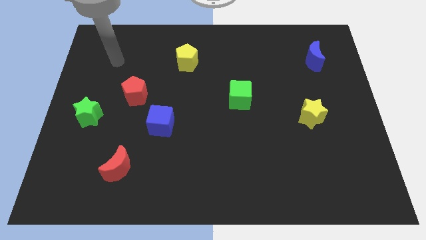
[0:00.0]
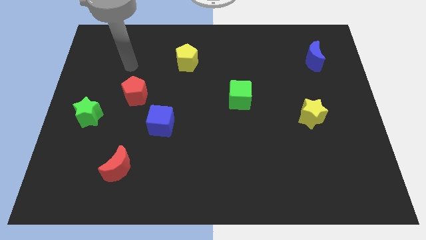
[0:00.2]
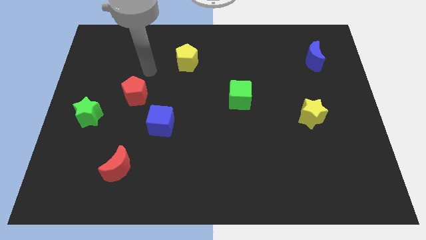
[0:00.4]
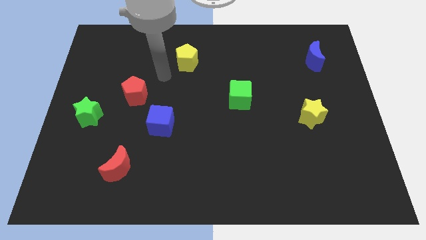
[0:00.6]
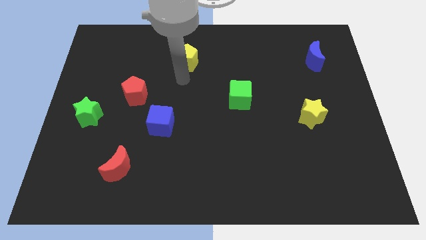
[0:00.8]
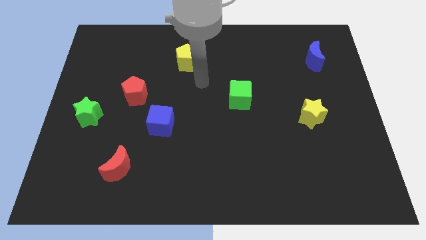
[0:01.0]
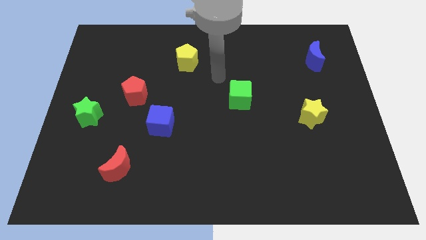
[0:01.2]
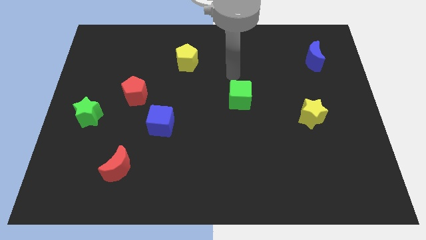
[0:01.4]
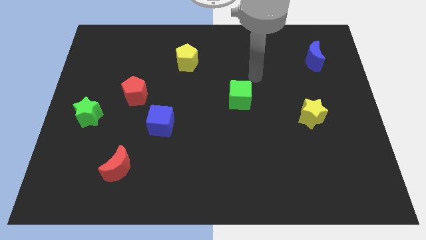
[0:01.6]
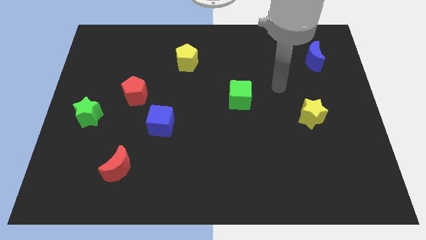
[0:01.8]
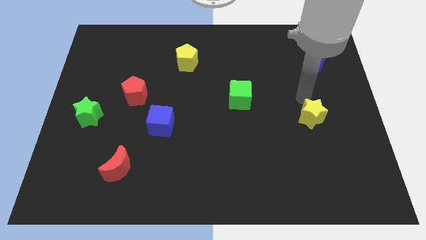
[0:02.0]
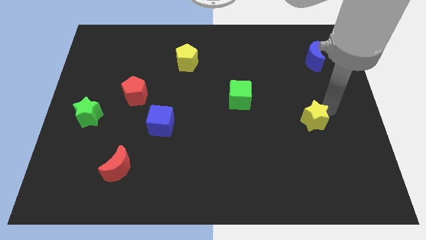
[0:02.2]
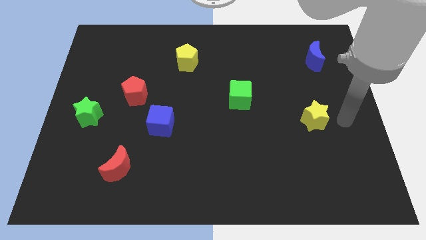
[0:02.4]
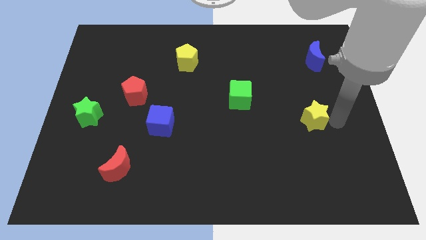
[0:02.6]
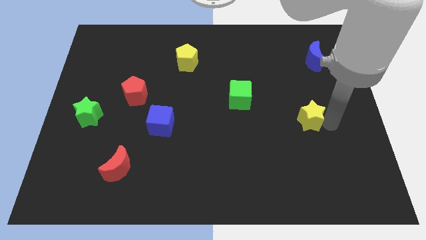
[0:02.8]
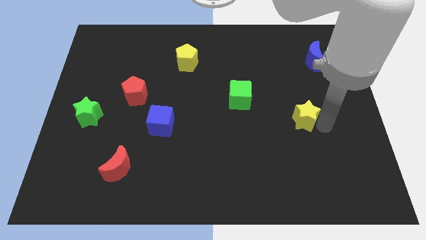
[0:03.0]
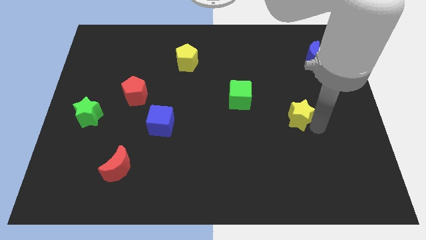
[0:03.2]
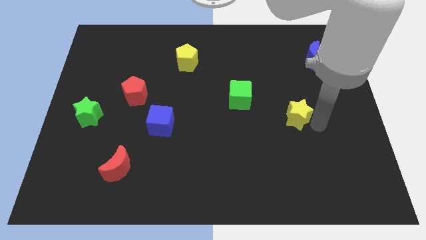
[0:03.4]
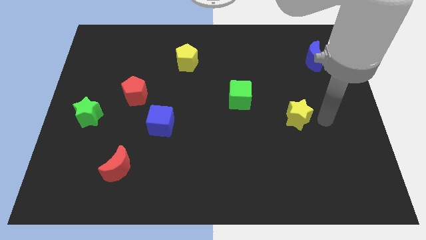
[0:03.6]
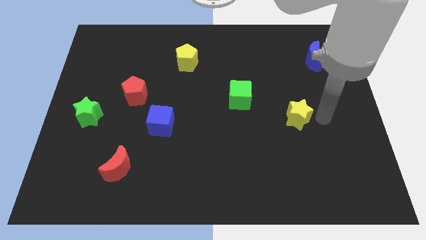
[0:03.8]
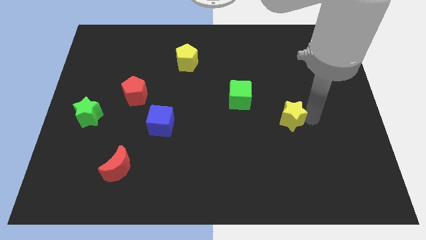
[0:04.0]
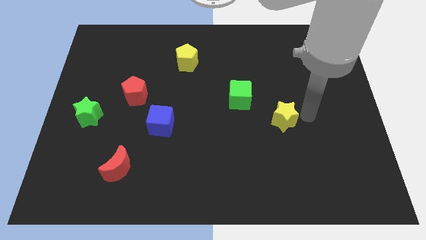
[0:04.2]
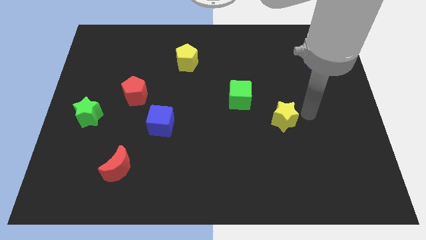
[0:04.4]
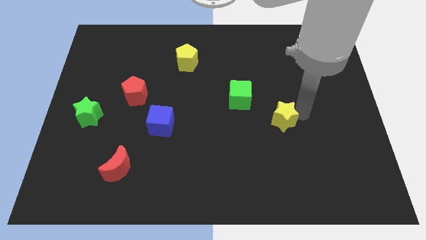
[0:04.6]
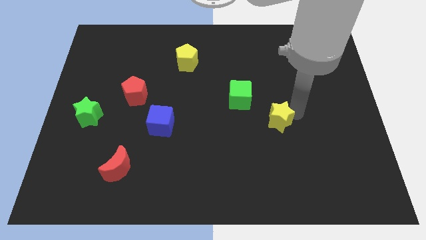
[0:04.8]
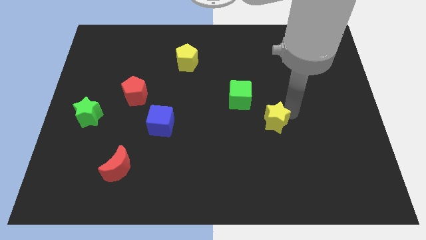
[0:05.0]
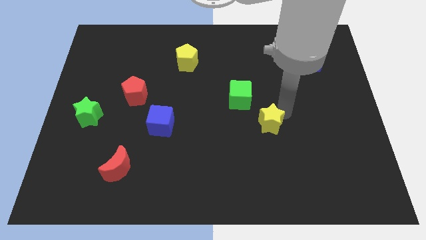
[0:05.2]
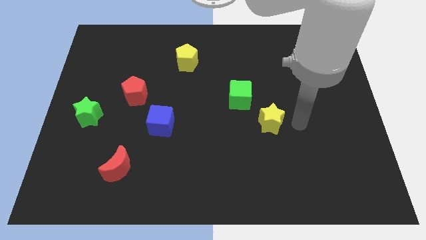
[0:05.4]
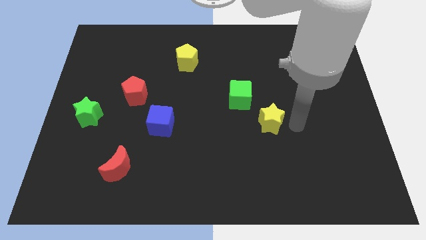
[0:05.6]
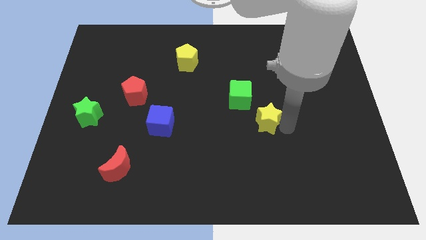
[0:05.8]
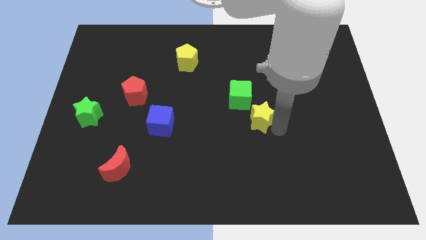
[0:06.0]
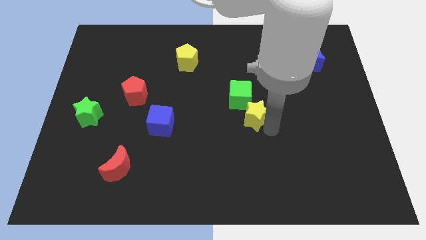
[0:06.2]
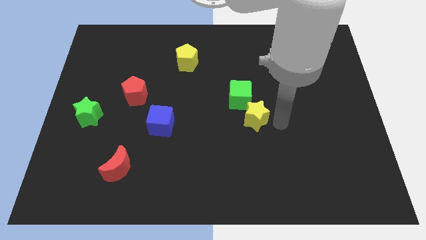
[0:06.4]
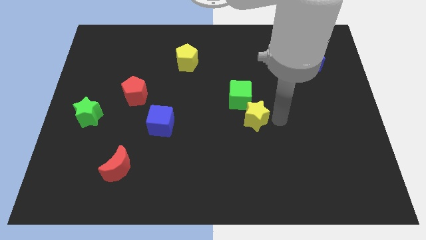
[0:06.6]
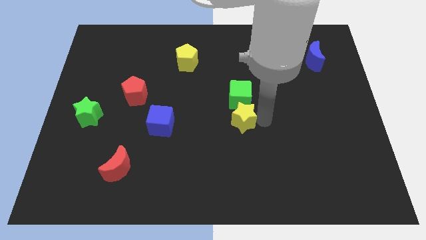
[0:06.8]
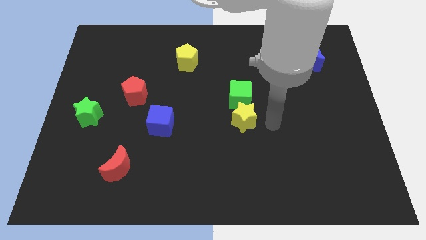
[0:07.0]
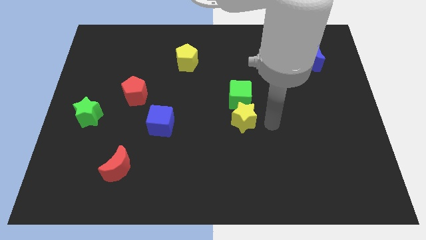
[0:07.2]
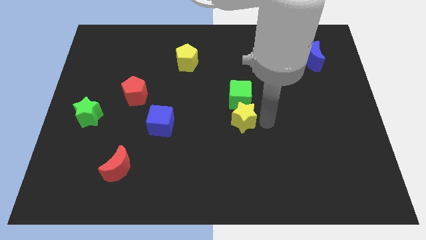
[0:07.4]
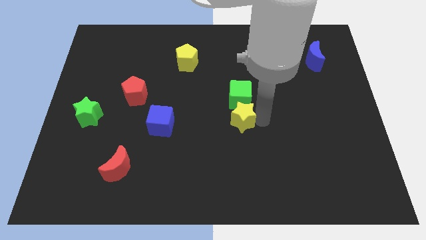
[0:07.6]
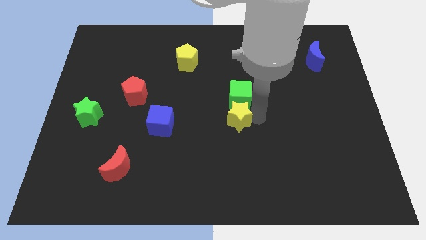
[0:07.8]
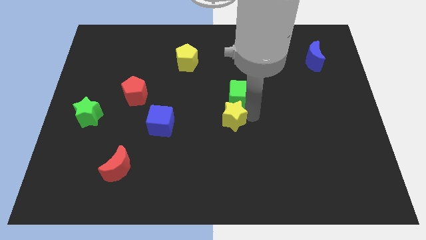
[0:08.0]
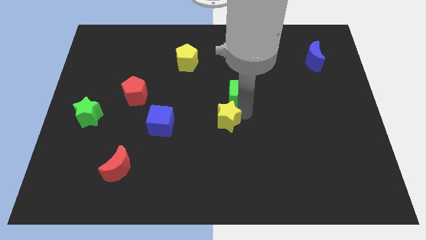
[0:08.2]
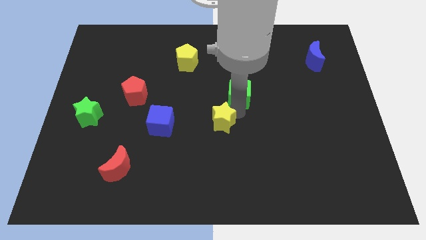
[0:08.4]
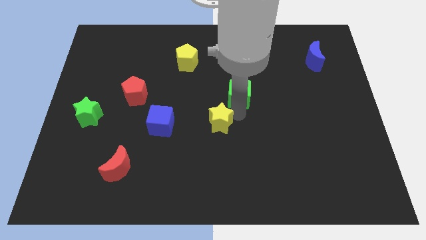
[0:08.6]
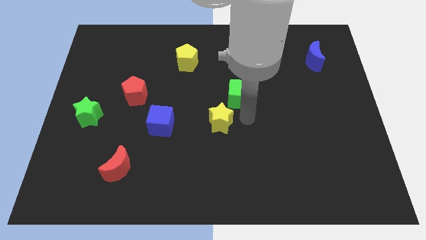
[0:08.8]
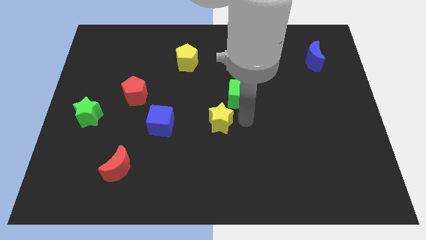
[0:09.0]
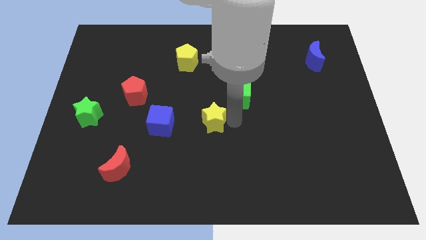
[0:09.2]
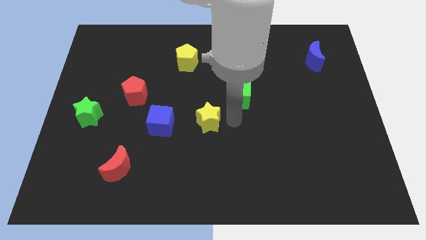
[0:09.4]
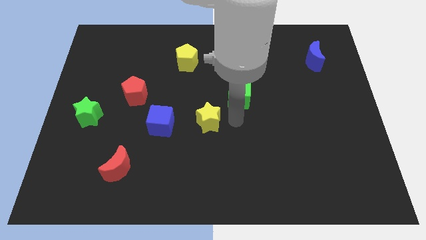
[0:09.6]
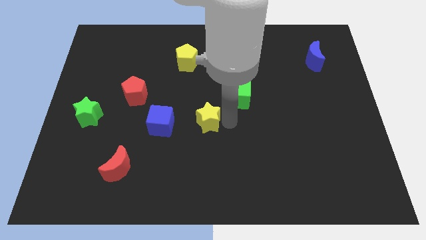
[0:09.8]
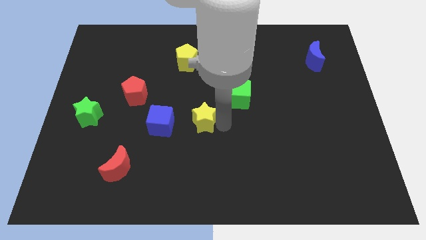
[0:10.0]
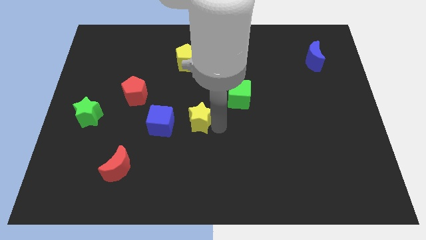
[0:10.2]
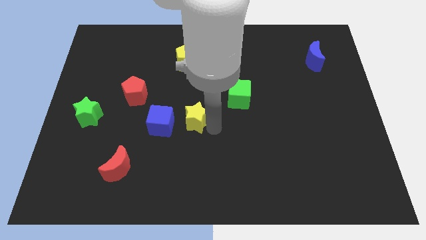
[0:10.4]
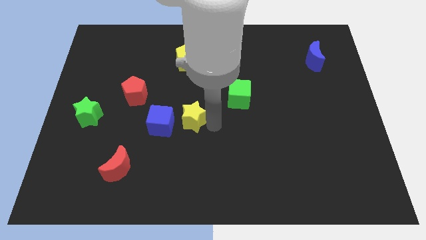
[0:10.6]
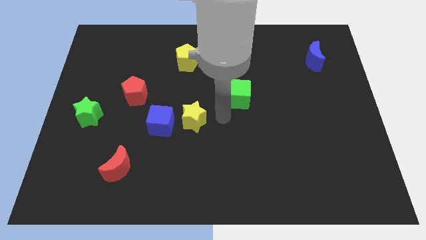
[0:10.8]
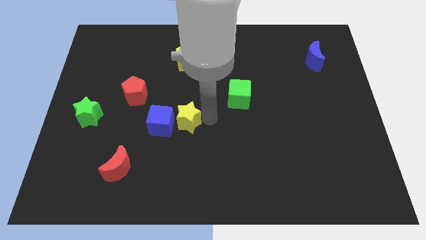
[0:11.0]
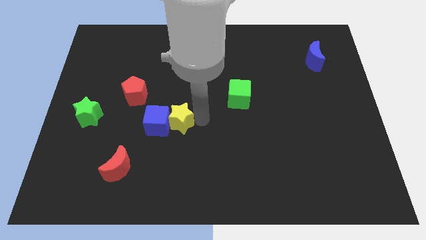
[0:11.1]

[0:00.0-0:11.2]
move the yellow star close to the blue cube
